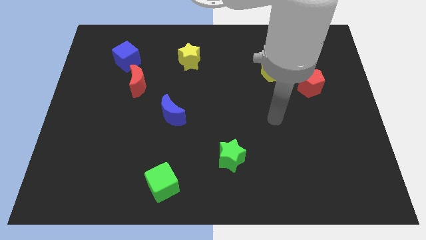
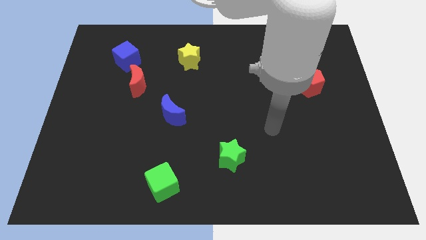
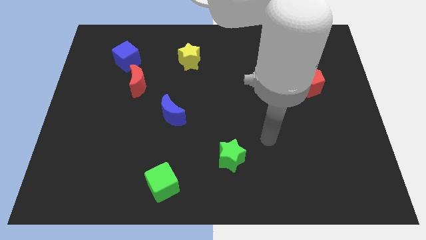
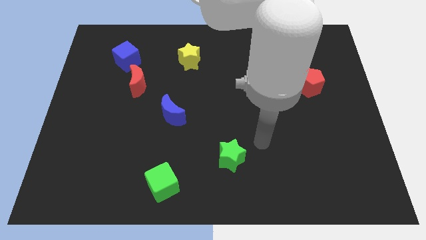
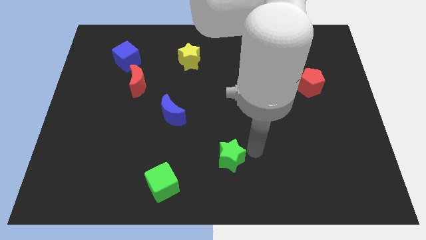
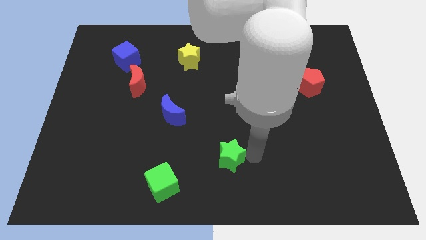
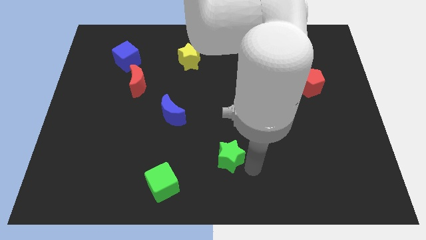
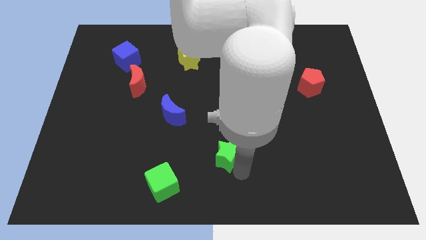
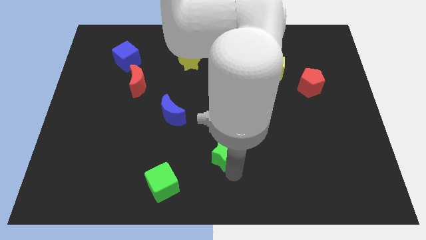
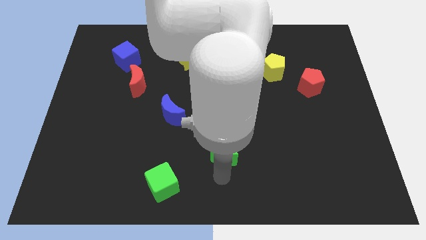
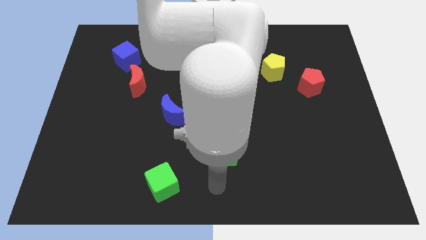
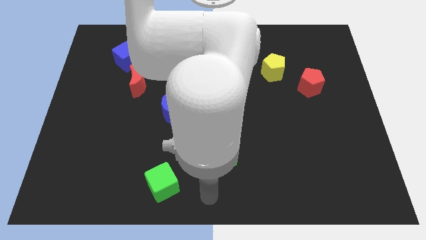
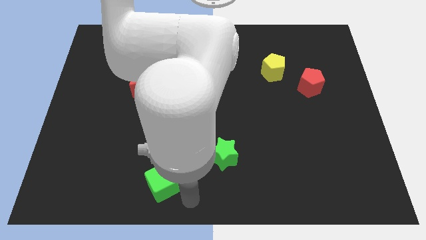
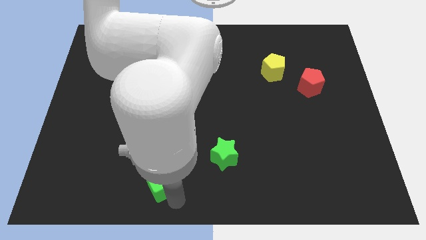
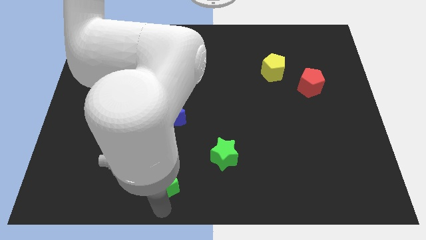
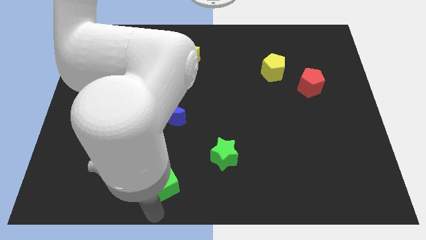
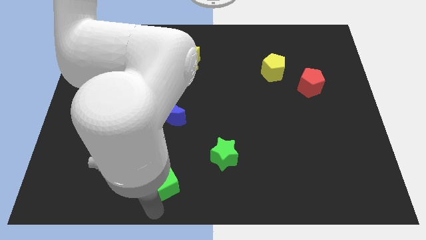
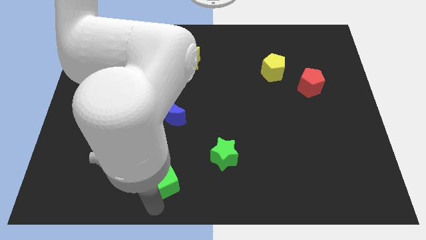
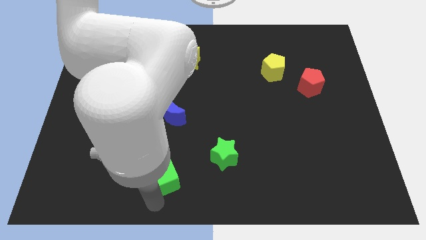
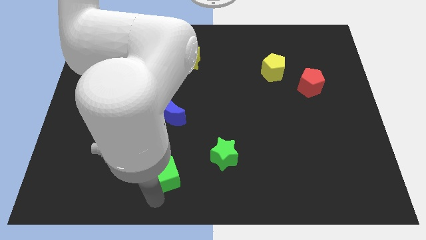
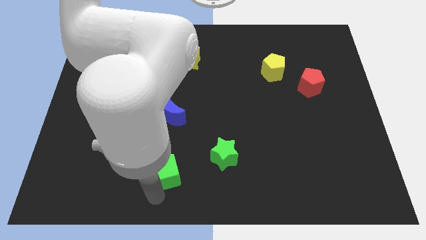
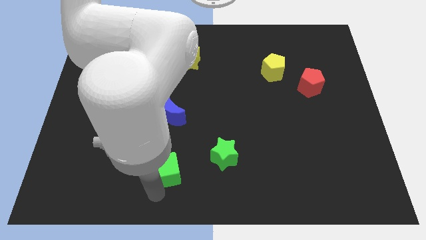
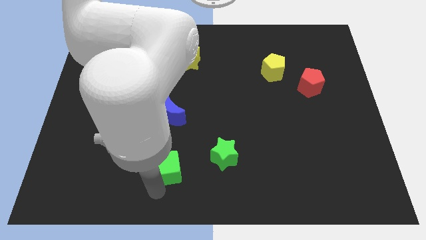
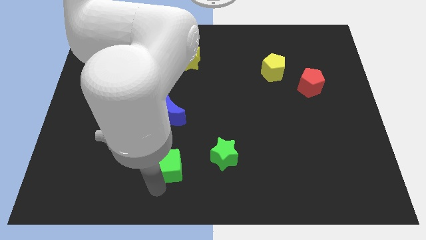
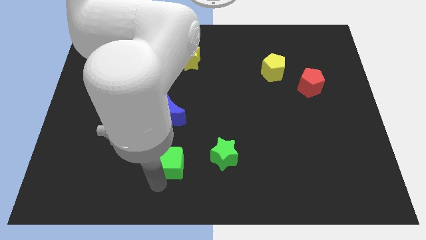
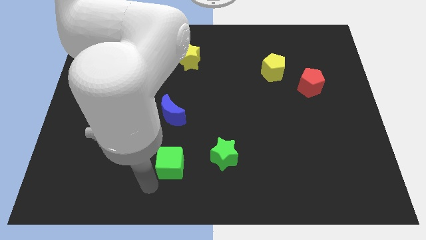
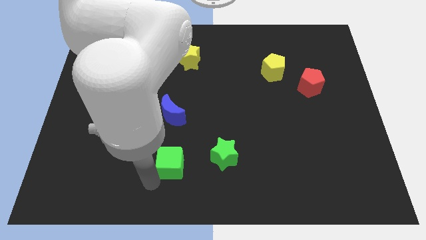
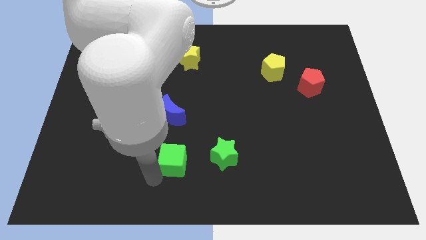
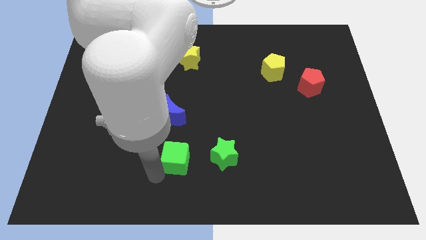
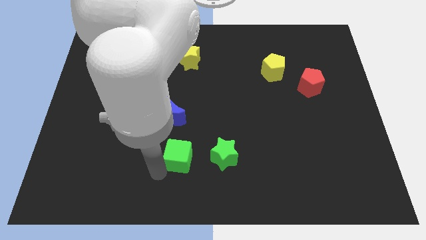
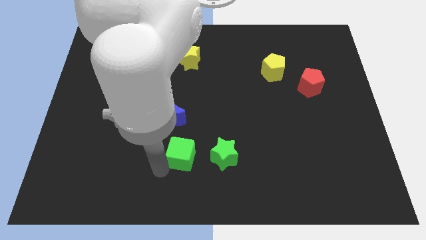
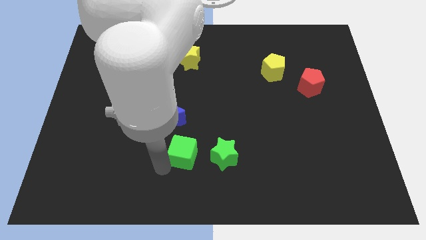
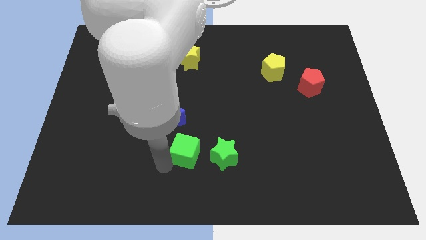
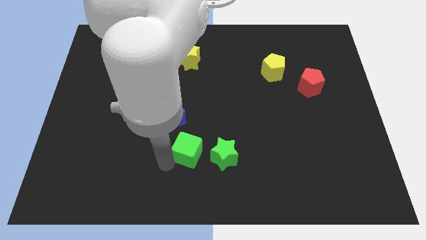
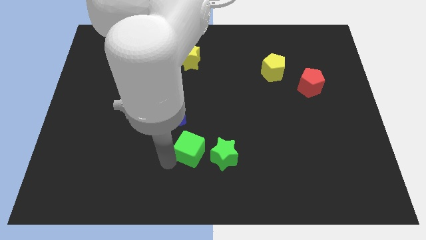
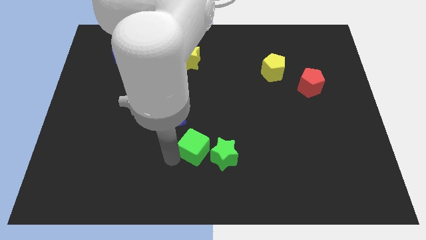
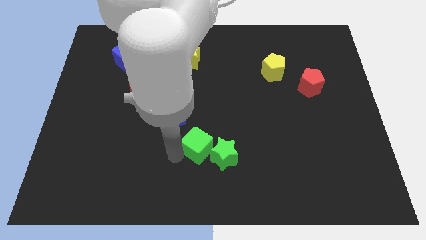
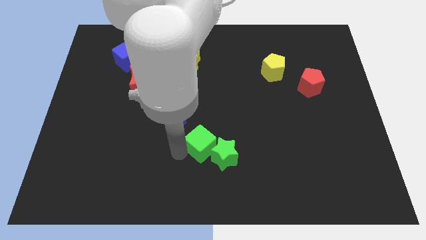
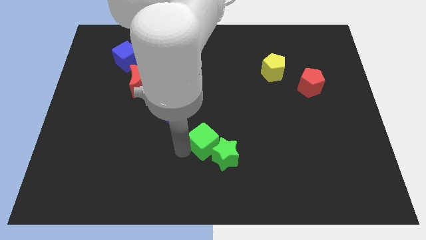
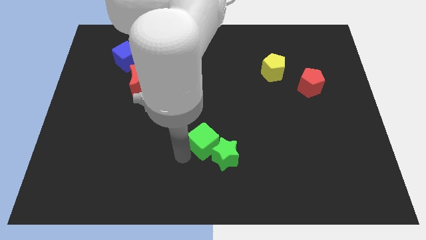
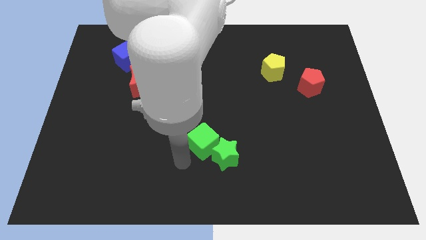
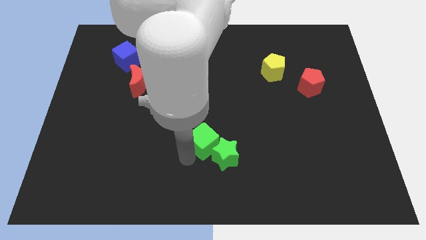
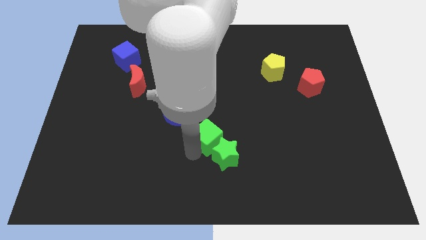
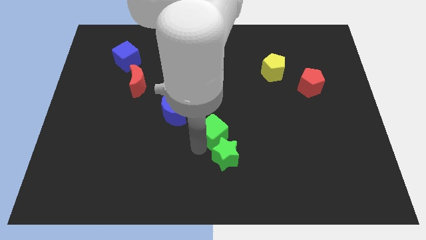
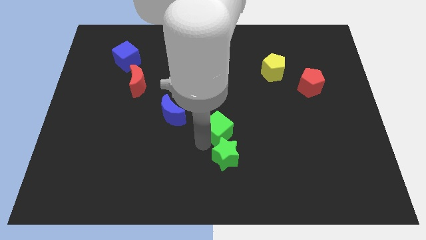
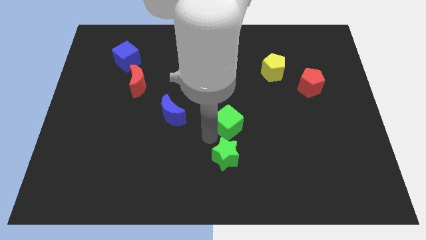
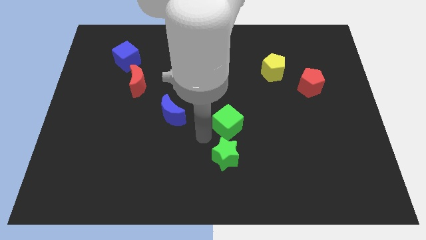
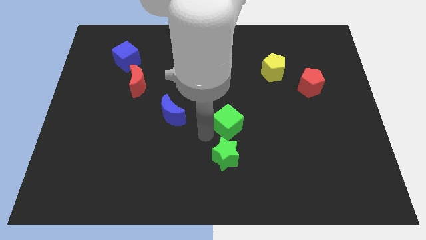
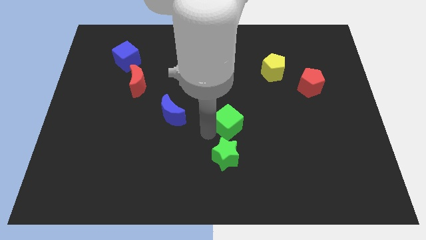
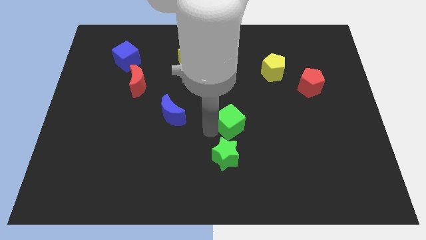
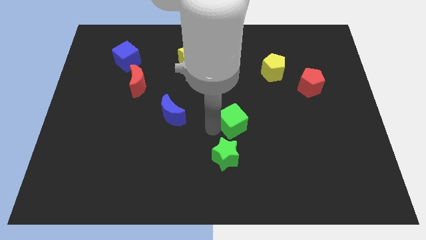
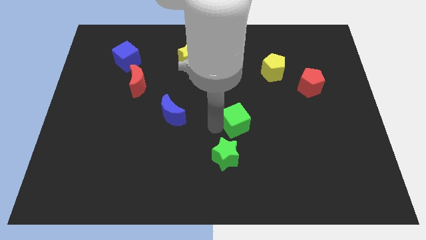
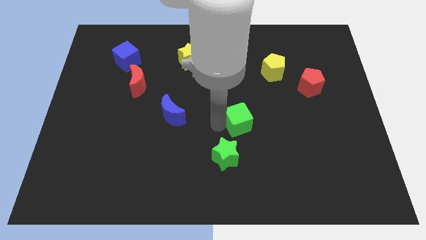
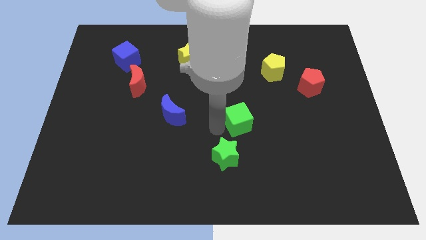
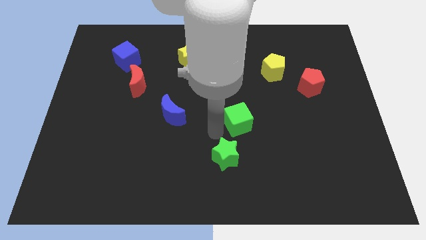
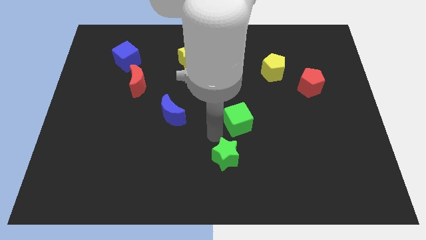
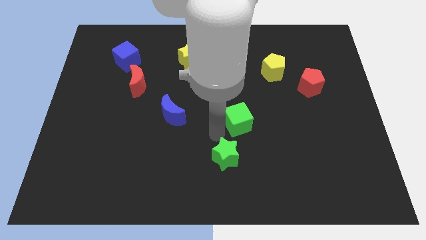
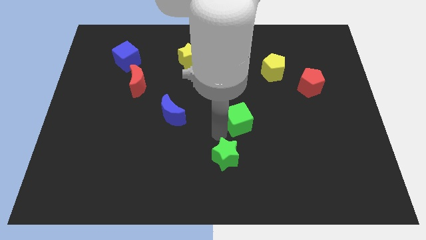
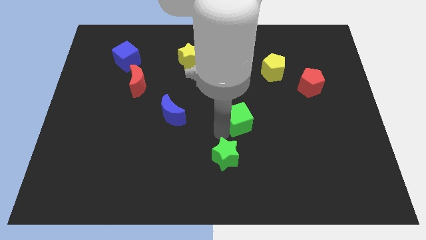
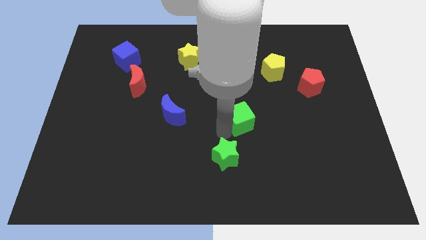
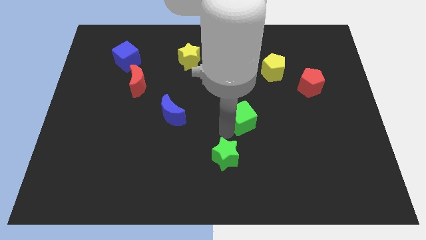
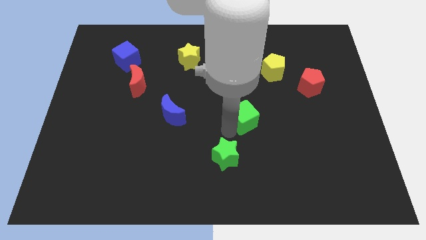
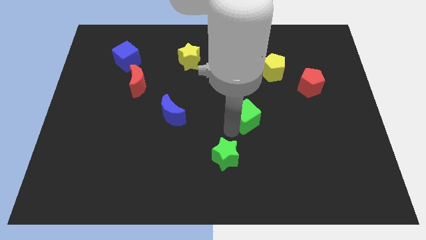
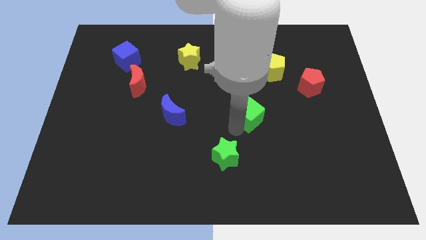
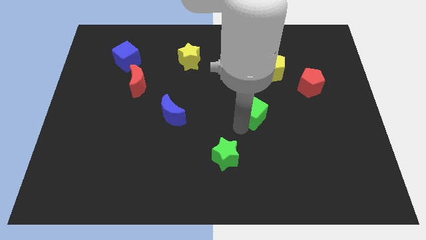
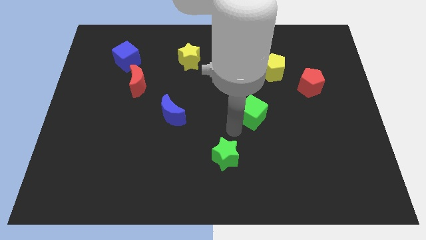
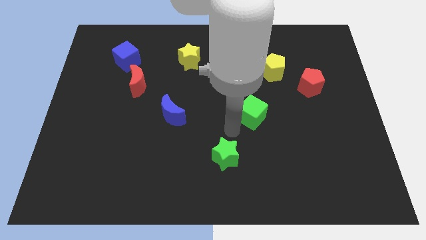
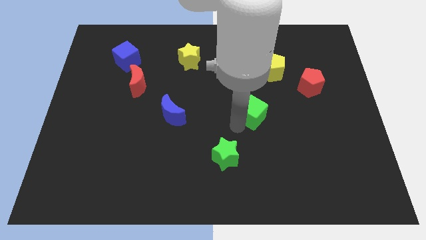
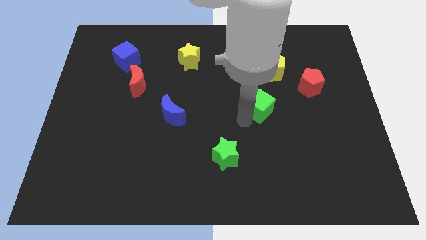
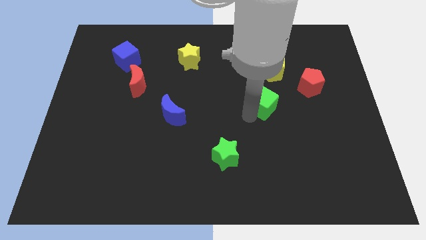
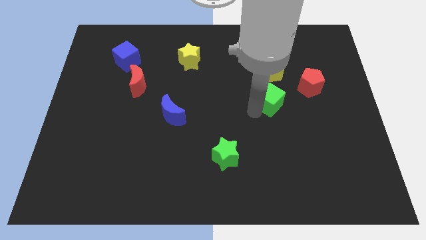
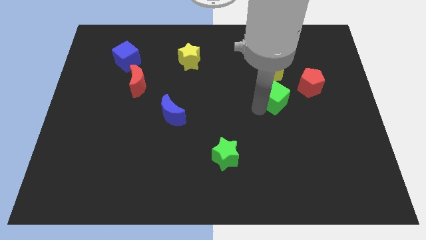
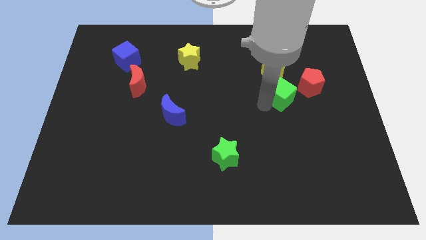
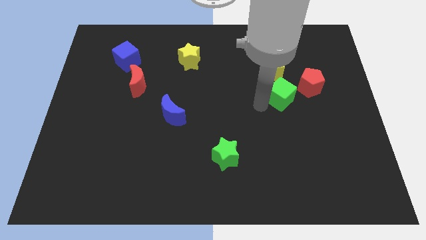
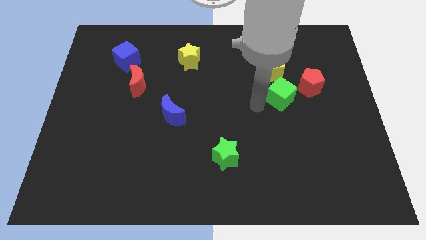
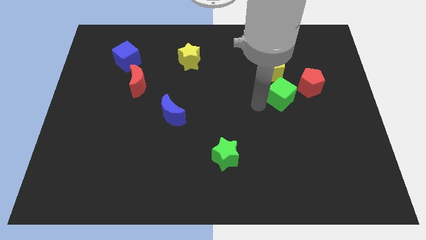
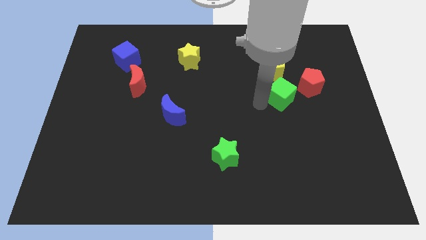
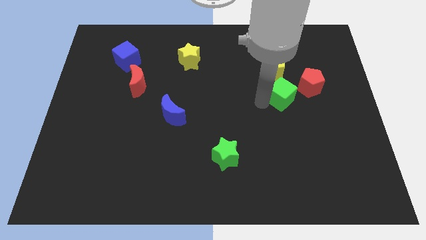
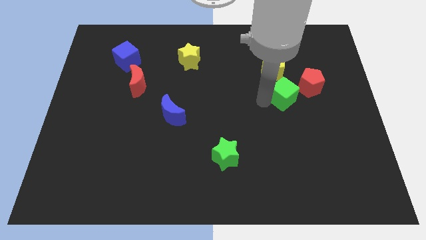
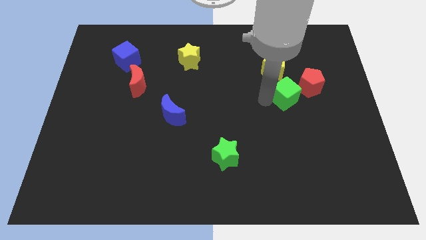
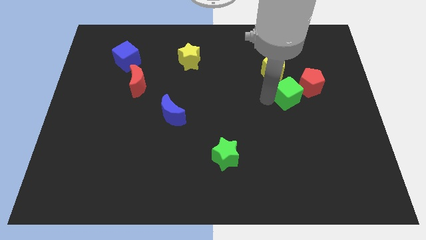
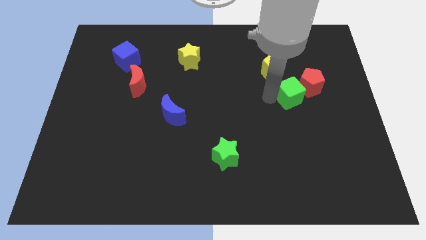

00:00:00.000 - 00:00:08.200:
move the green cube to the red pentagon
